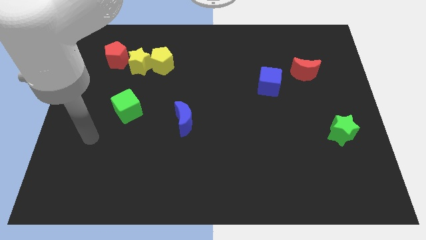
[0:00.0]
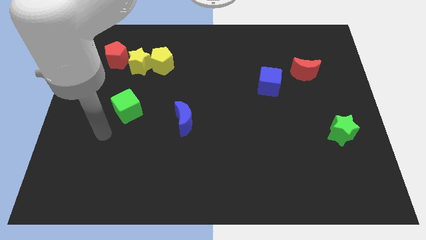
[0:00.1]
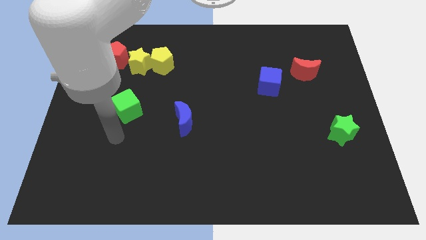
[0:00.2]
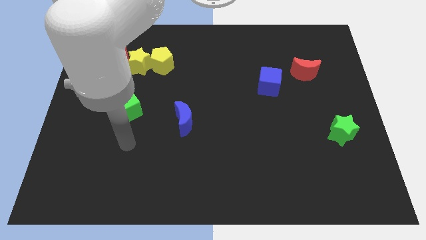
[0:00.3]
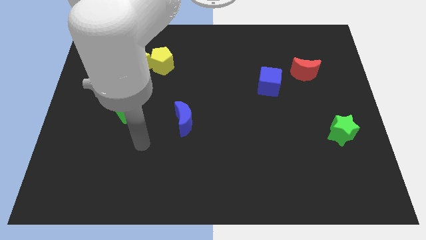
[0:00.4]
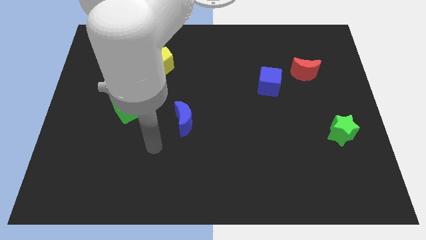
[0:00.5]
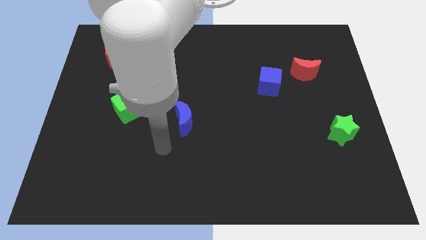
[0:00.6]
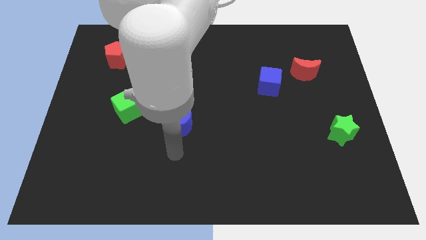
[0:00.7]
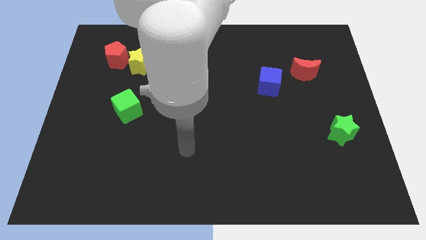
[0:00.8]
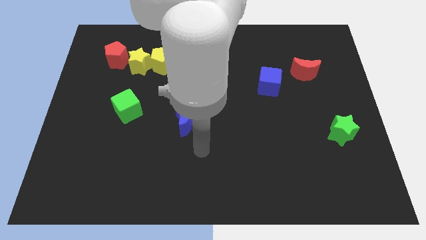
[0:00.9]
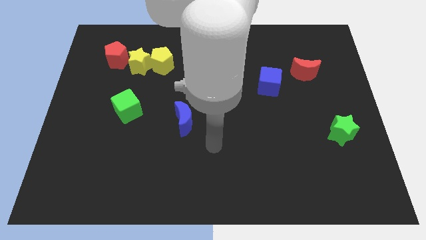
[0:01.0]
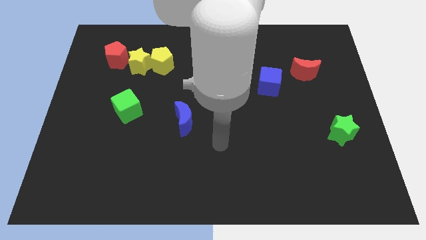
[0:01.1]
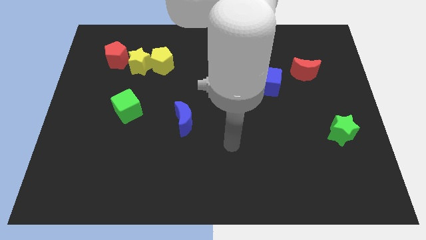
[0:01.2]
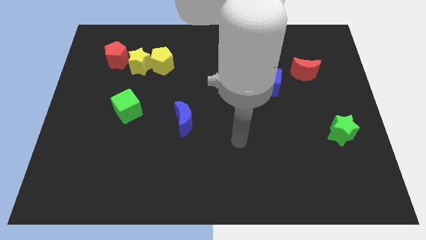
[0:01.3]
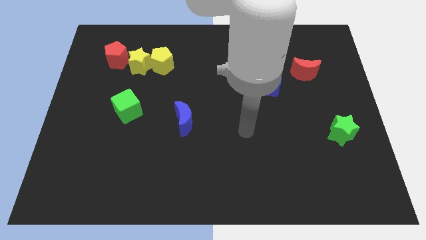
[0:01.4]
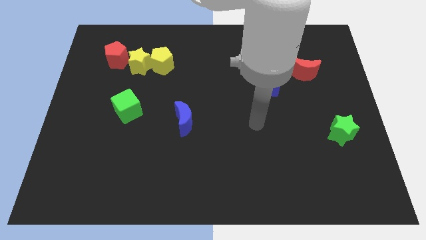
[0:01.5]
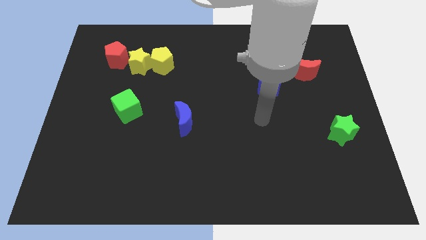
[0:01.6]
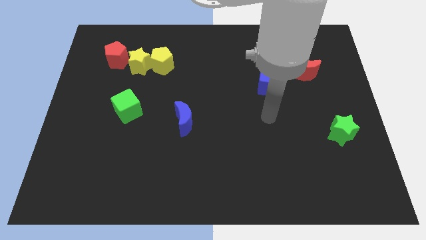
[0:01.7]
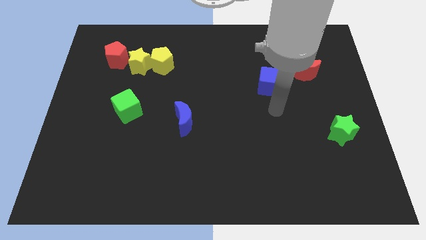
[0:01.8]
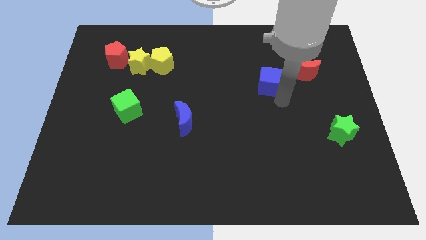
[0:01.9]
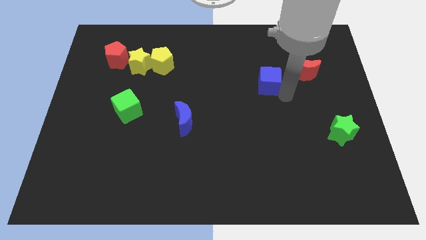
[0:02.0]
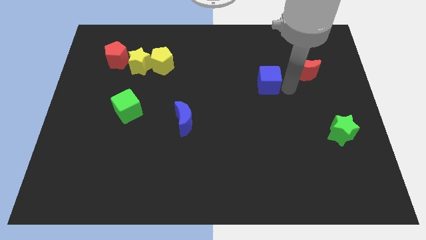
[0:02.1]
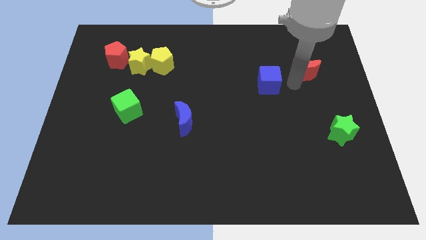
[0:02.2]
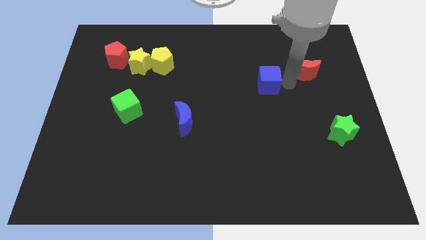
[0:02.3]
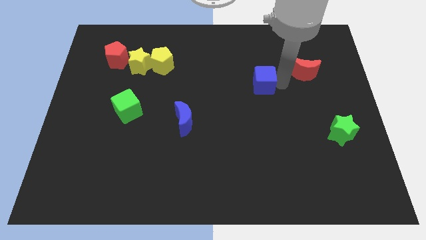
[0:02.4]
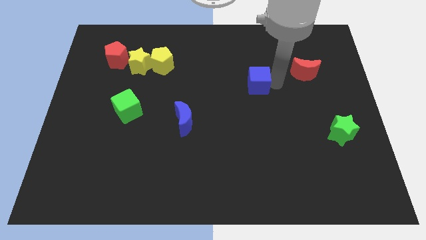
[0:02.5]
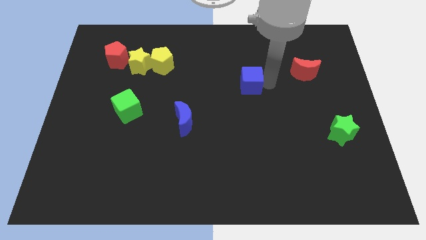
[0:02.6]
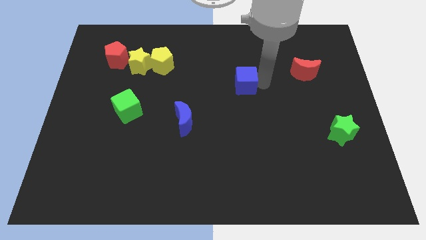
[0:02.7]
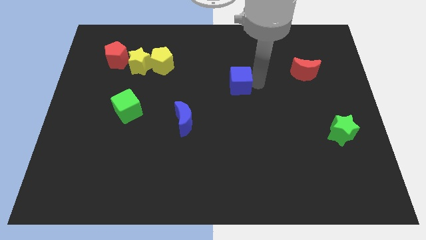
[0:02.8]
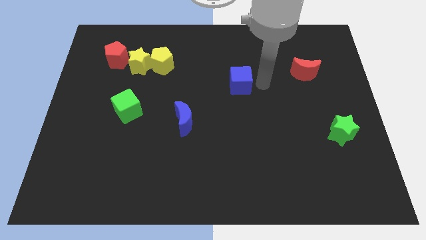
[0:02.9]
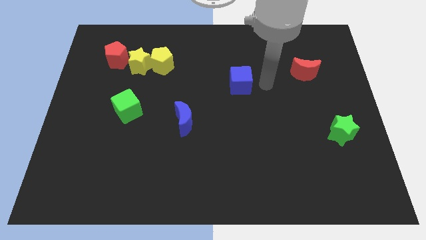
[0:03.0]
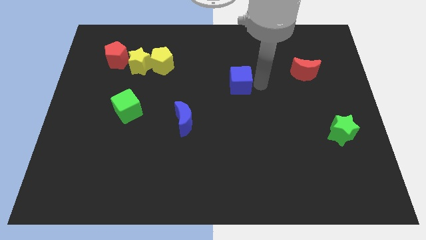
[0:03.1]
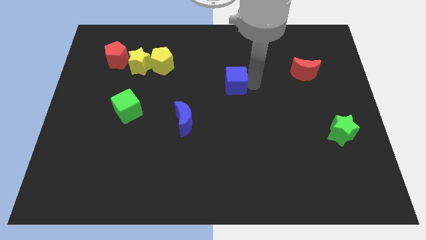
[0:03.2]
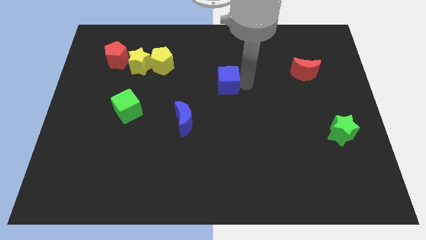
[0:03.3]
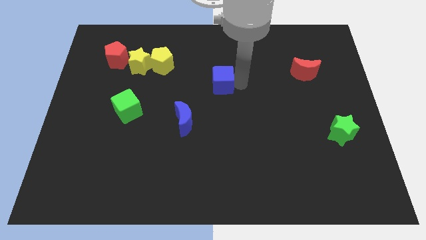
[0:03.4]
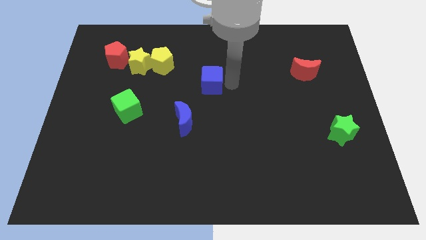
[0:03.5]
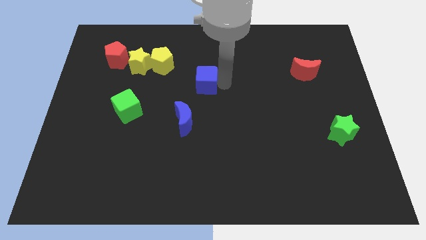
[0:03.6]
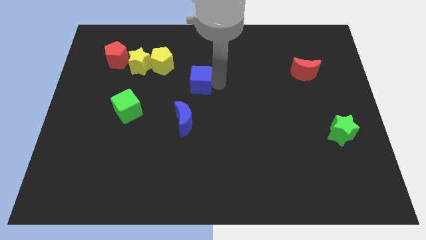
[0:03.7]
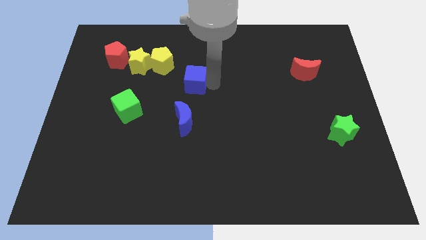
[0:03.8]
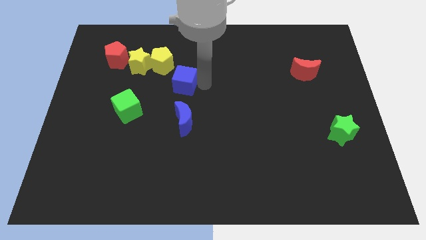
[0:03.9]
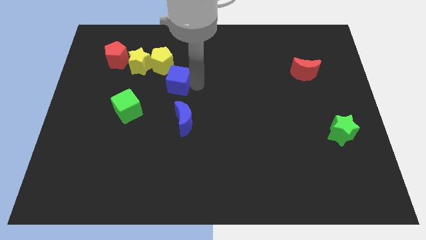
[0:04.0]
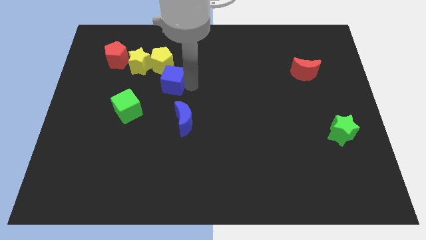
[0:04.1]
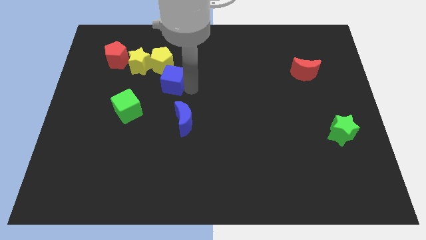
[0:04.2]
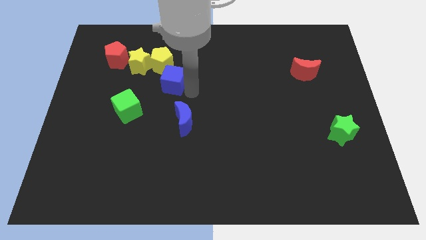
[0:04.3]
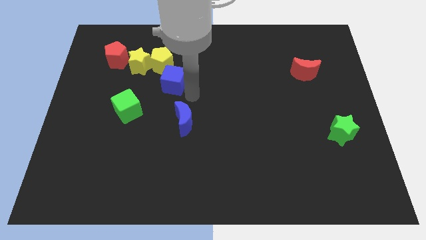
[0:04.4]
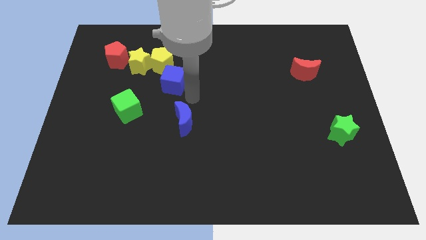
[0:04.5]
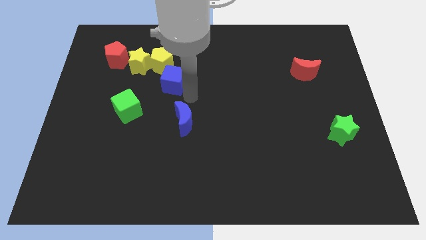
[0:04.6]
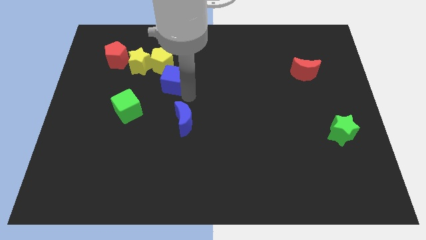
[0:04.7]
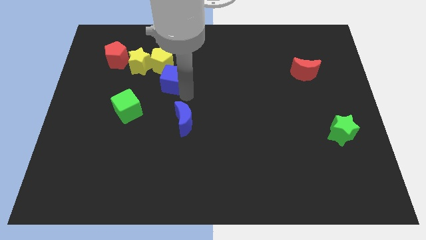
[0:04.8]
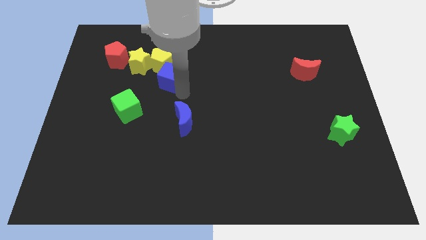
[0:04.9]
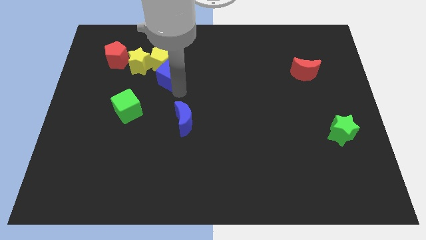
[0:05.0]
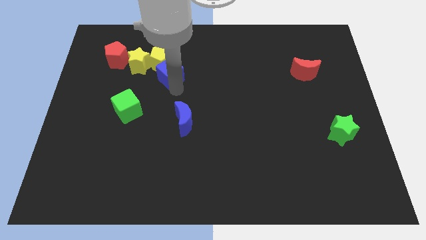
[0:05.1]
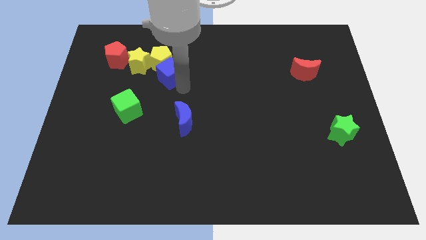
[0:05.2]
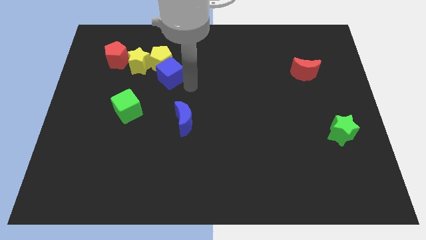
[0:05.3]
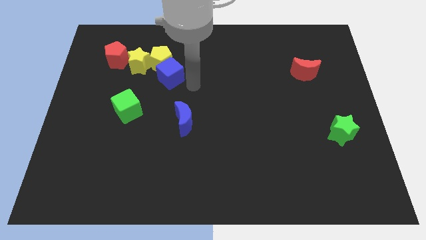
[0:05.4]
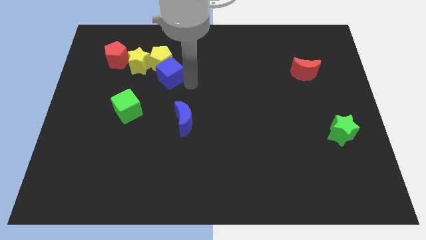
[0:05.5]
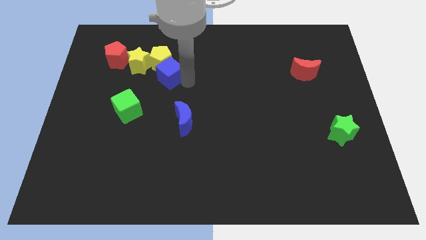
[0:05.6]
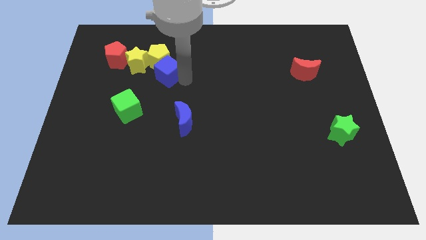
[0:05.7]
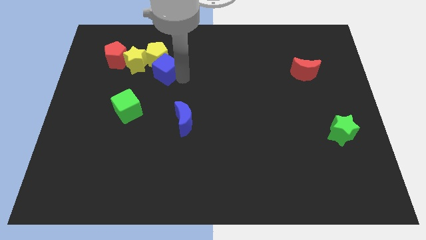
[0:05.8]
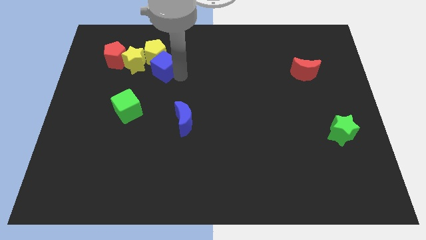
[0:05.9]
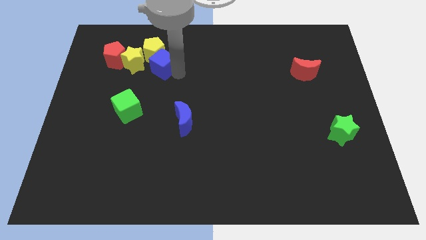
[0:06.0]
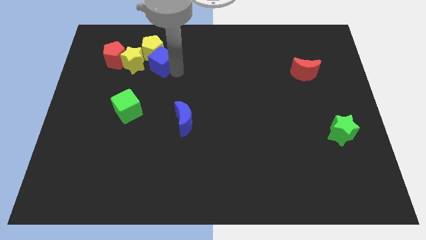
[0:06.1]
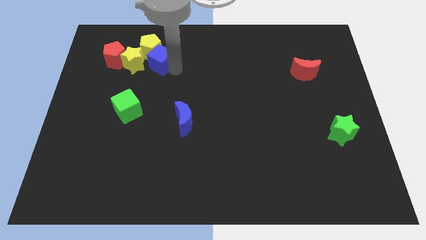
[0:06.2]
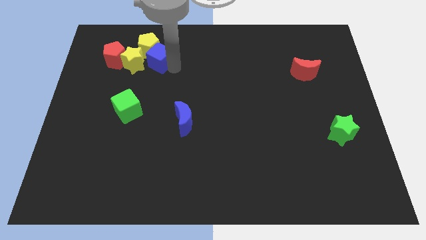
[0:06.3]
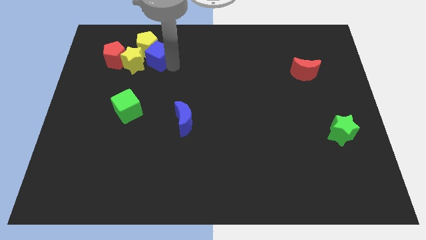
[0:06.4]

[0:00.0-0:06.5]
put the blue cube close to the yellow star

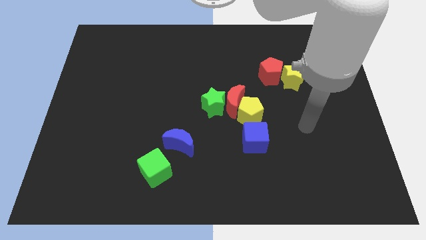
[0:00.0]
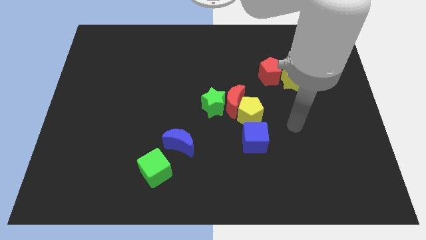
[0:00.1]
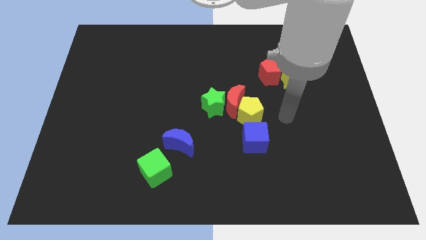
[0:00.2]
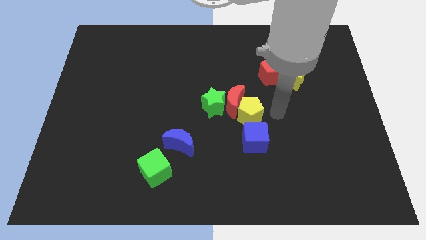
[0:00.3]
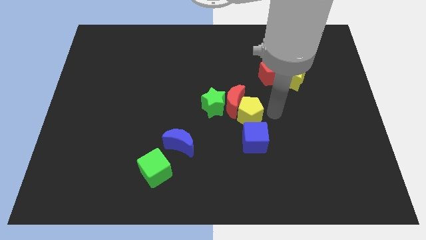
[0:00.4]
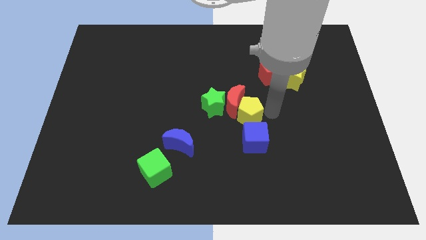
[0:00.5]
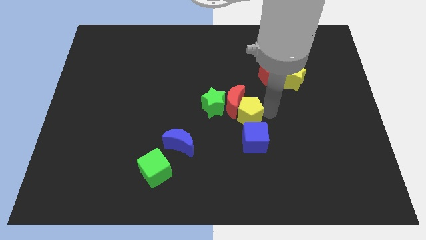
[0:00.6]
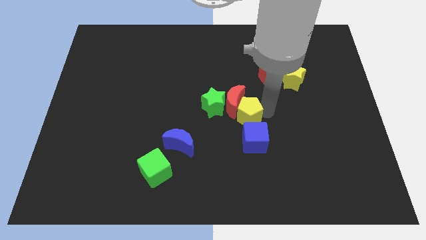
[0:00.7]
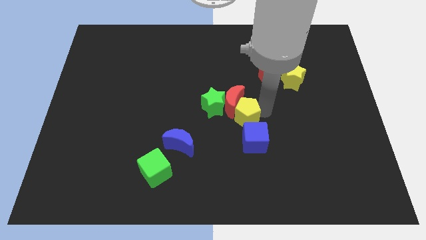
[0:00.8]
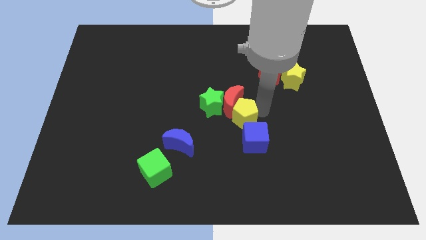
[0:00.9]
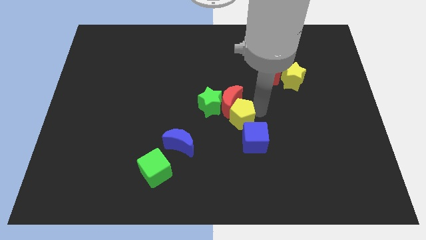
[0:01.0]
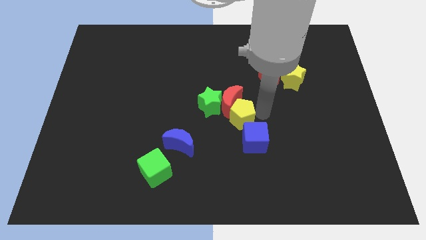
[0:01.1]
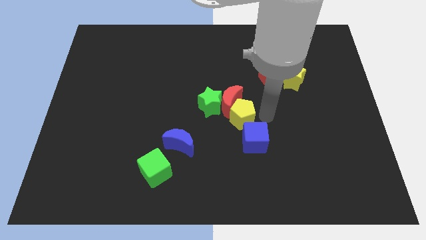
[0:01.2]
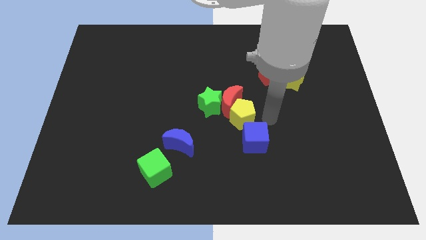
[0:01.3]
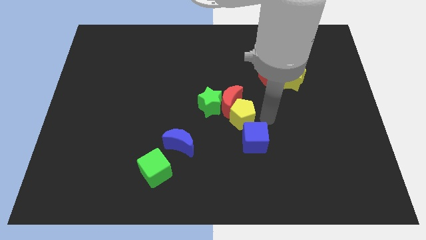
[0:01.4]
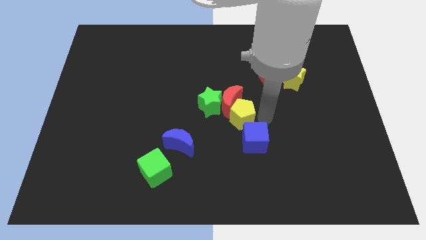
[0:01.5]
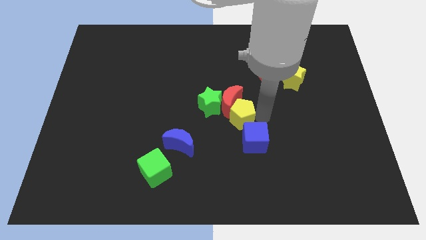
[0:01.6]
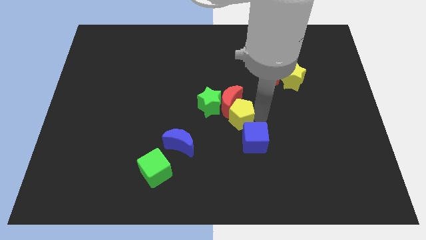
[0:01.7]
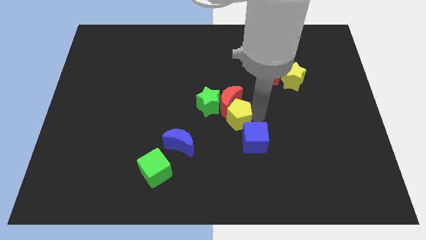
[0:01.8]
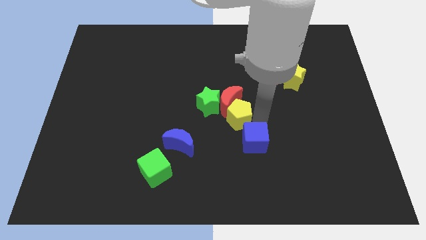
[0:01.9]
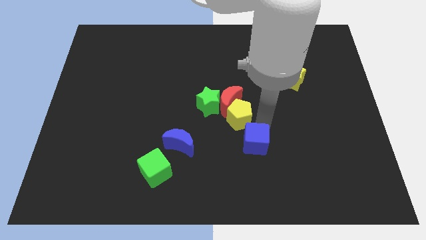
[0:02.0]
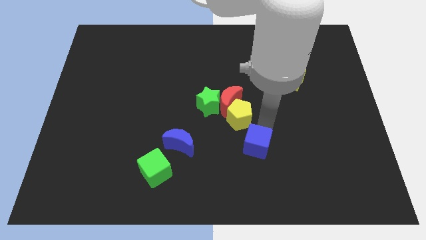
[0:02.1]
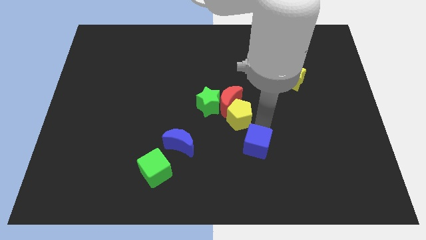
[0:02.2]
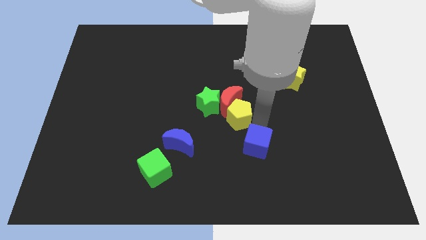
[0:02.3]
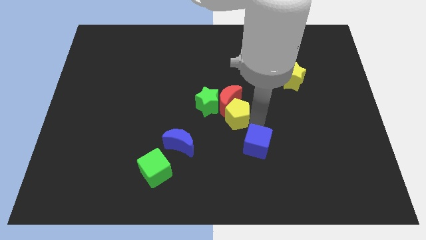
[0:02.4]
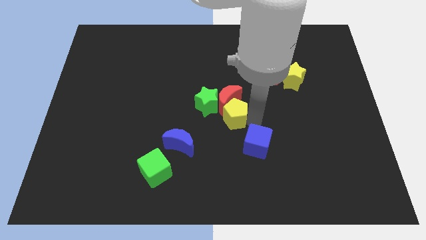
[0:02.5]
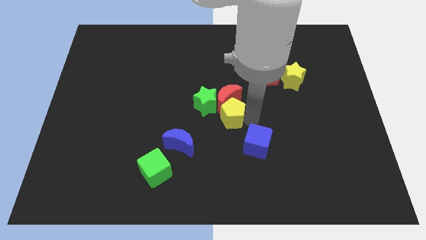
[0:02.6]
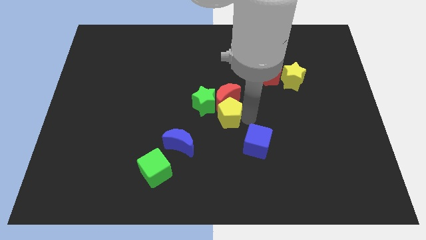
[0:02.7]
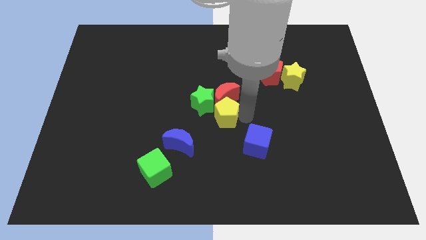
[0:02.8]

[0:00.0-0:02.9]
slide the yellow pentagon to the green star
